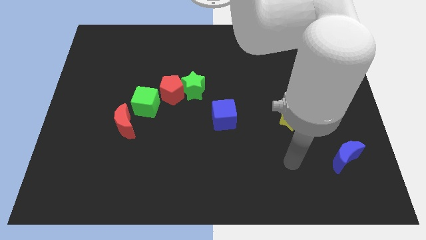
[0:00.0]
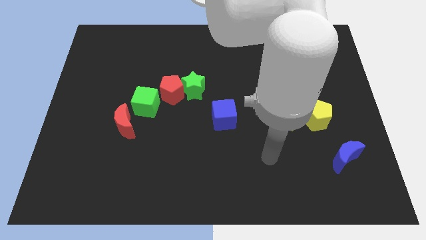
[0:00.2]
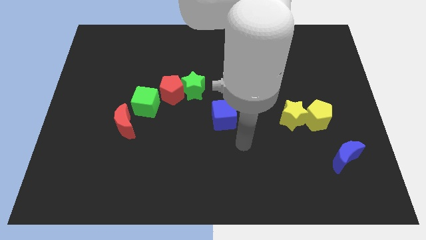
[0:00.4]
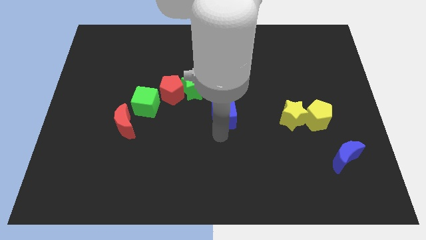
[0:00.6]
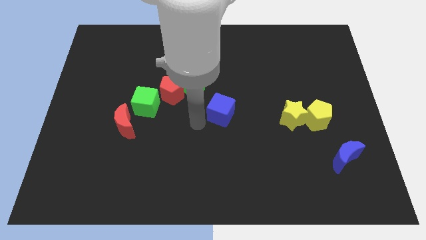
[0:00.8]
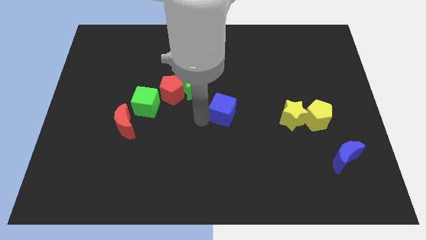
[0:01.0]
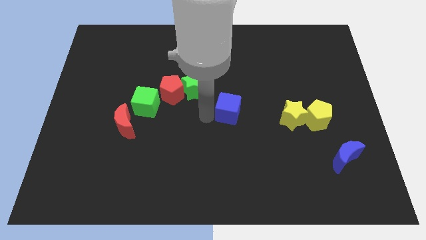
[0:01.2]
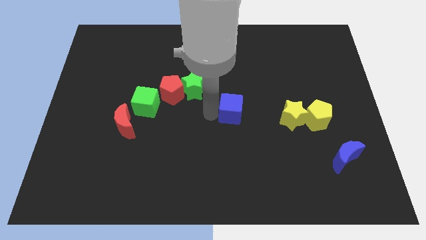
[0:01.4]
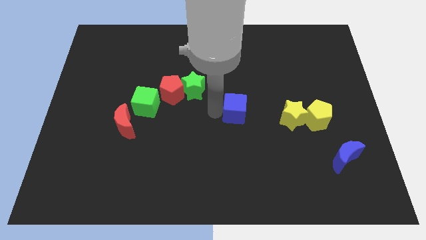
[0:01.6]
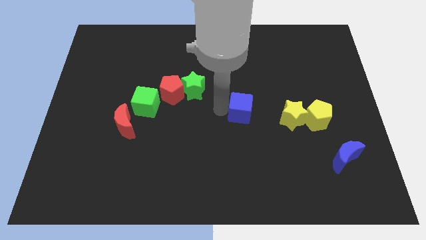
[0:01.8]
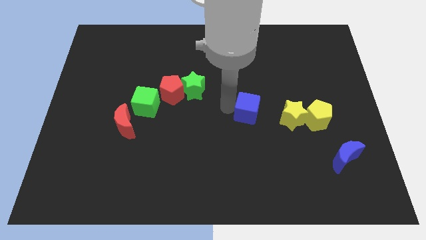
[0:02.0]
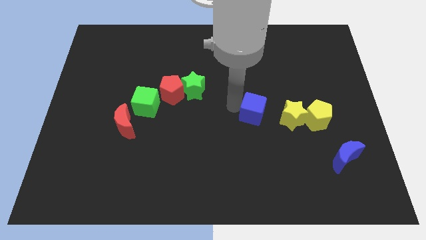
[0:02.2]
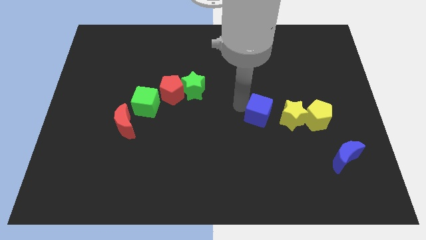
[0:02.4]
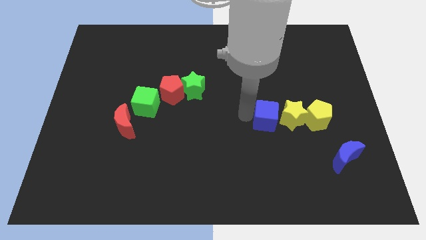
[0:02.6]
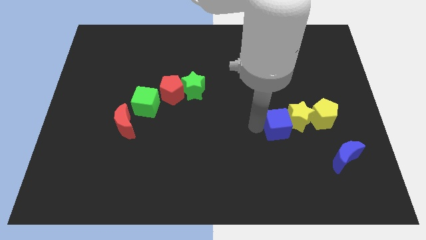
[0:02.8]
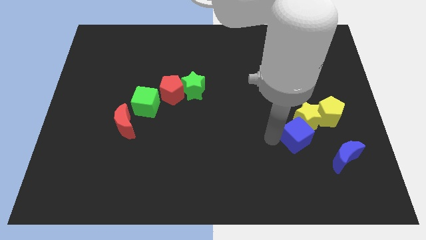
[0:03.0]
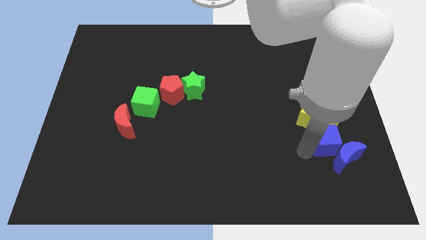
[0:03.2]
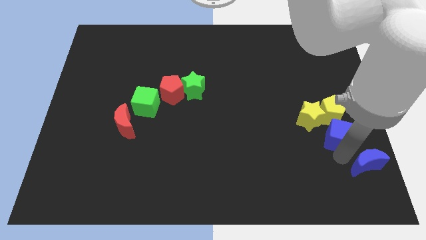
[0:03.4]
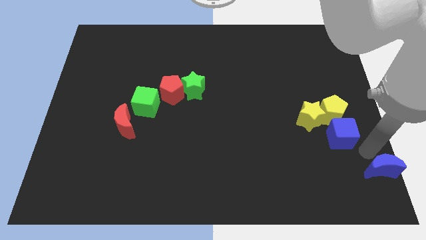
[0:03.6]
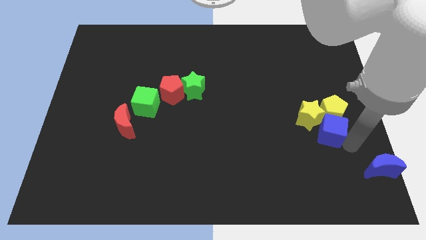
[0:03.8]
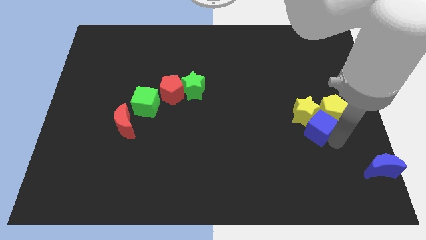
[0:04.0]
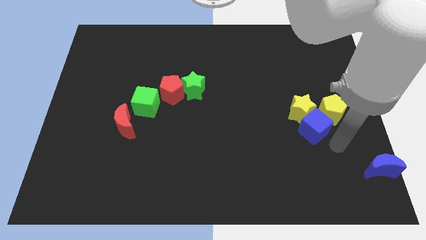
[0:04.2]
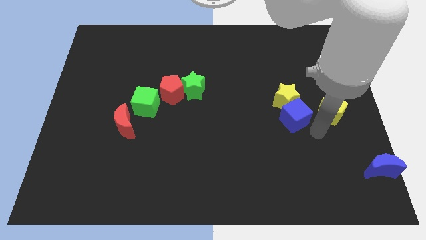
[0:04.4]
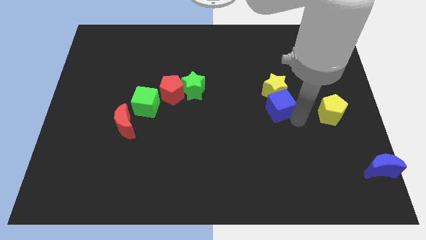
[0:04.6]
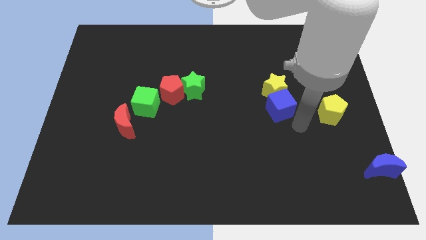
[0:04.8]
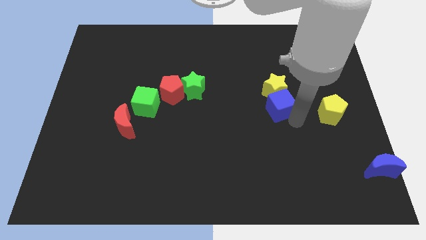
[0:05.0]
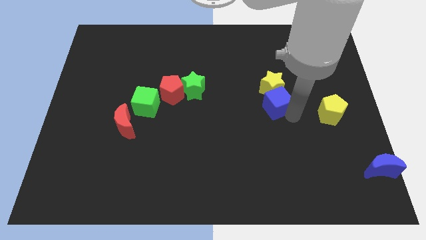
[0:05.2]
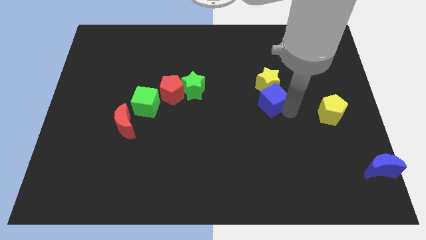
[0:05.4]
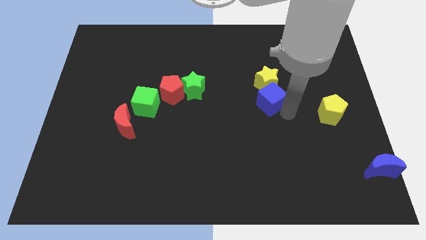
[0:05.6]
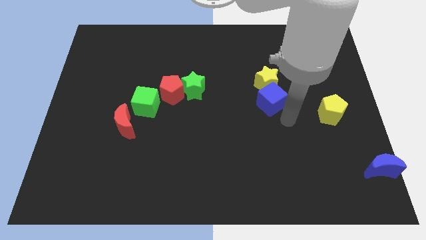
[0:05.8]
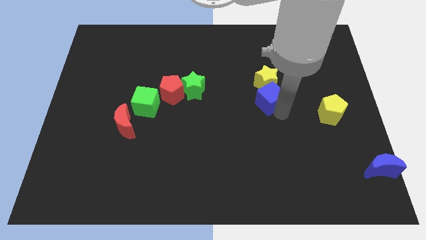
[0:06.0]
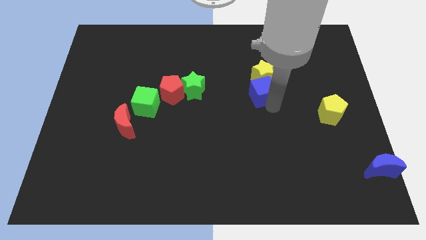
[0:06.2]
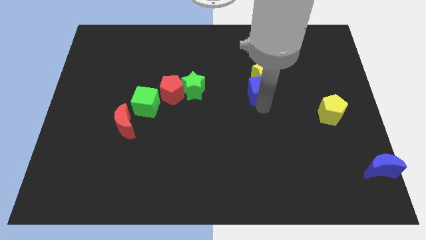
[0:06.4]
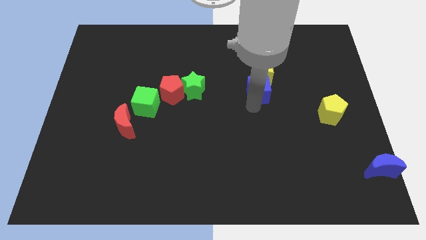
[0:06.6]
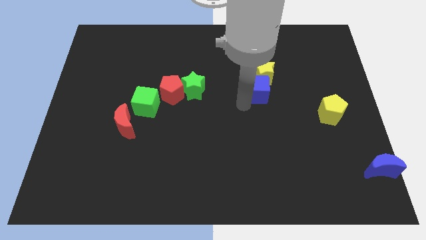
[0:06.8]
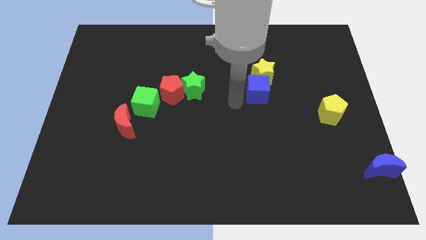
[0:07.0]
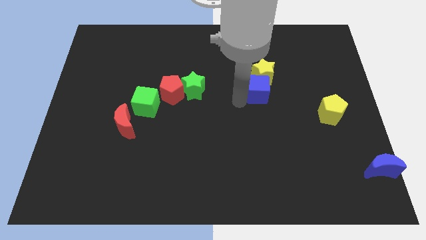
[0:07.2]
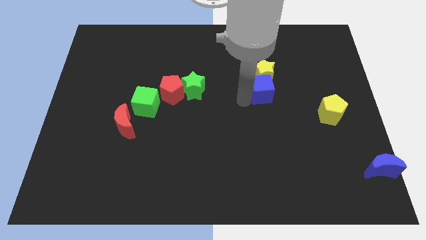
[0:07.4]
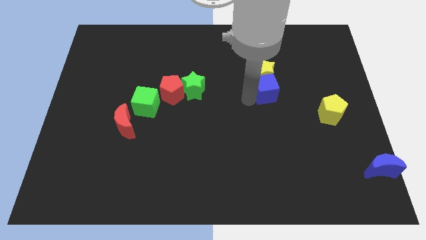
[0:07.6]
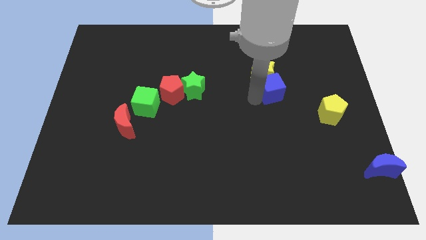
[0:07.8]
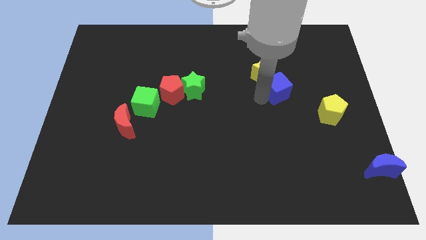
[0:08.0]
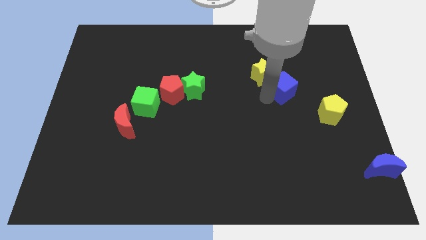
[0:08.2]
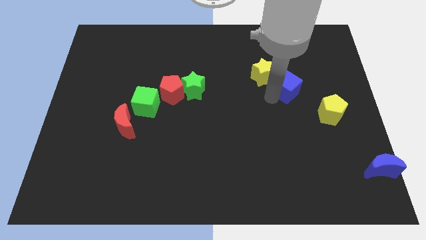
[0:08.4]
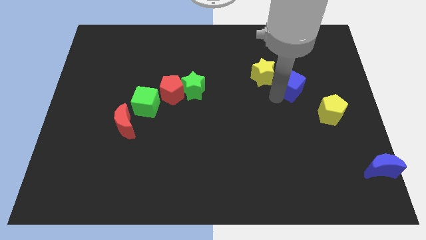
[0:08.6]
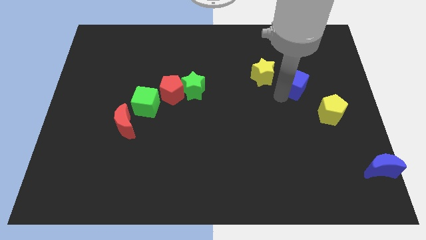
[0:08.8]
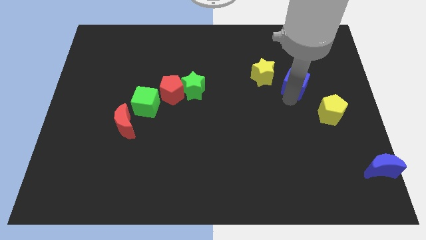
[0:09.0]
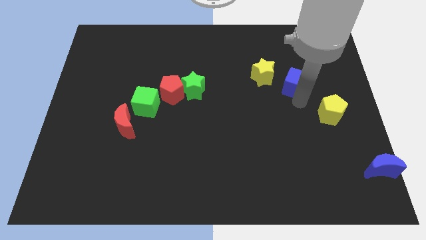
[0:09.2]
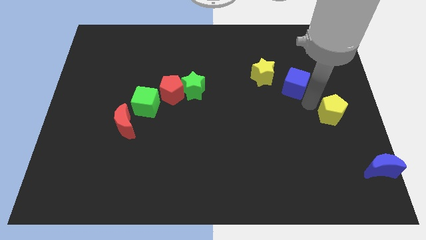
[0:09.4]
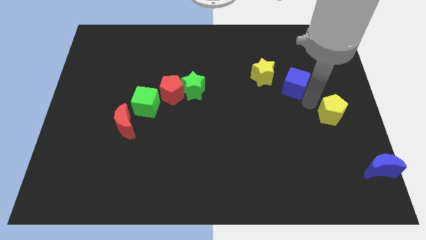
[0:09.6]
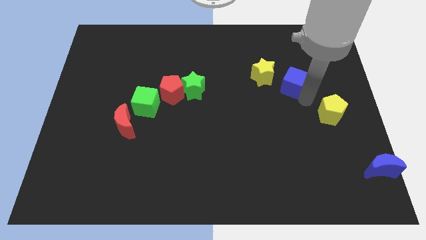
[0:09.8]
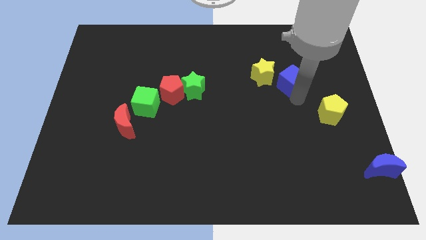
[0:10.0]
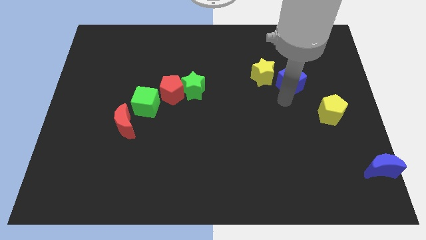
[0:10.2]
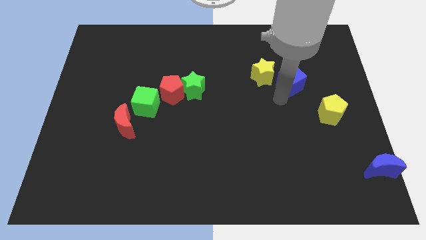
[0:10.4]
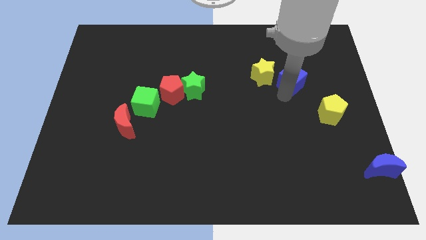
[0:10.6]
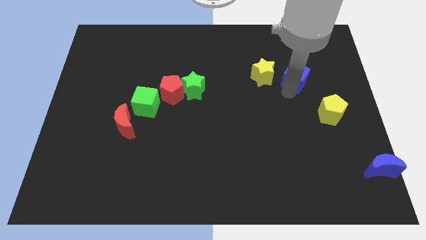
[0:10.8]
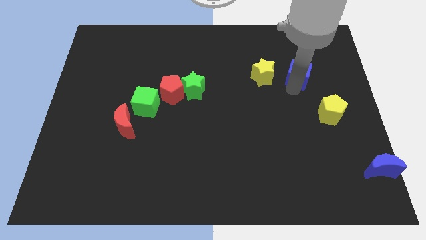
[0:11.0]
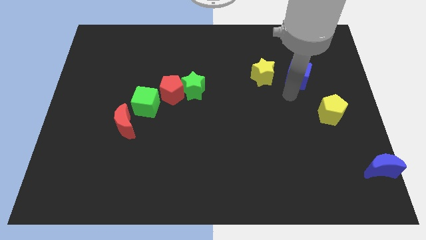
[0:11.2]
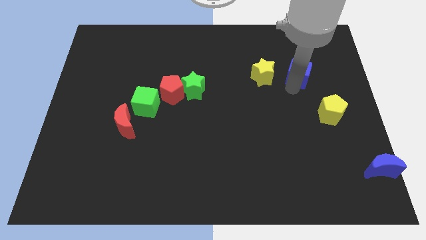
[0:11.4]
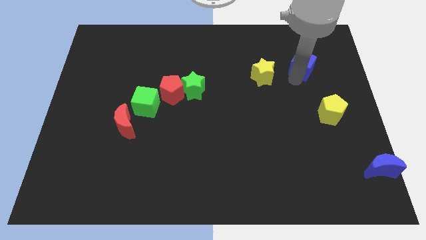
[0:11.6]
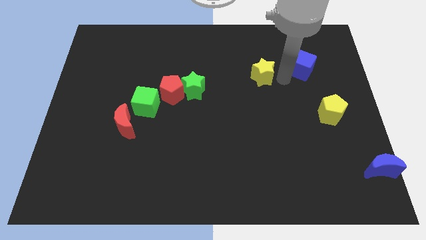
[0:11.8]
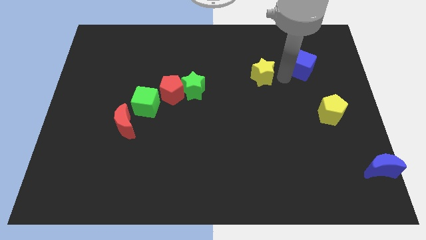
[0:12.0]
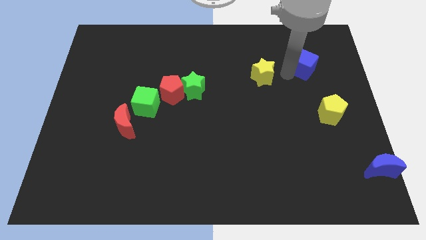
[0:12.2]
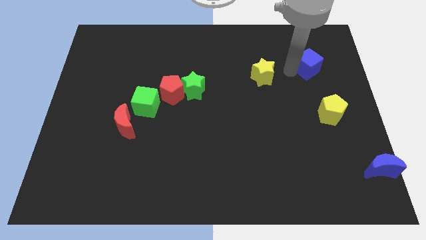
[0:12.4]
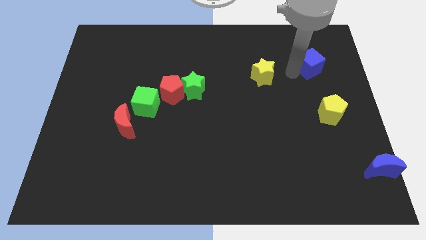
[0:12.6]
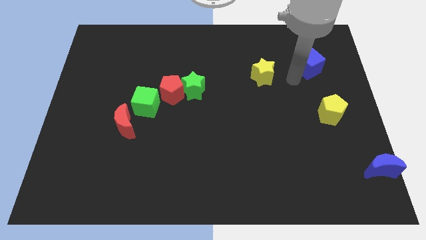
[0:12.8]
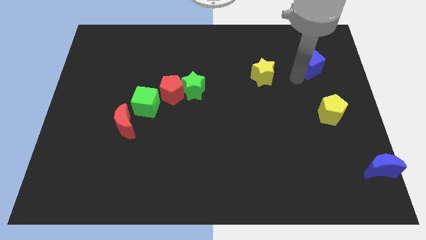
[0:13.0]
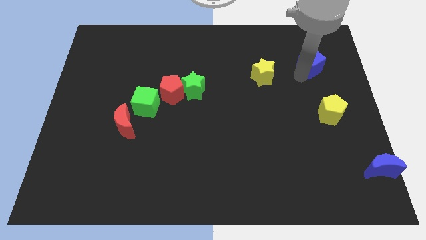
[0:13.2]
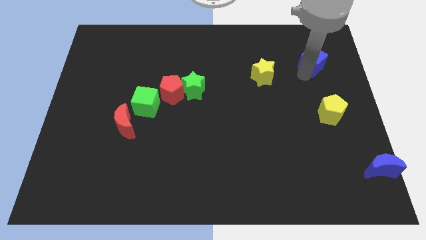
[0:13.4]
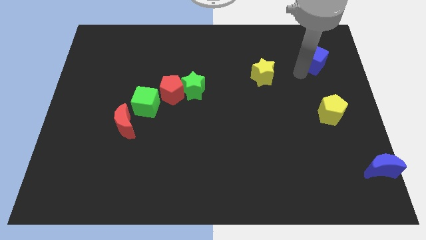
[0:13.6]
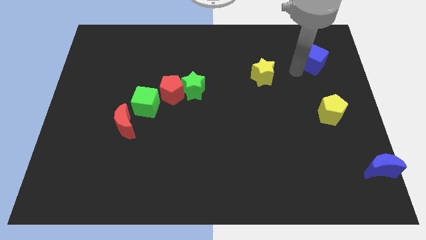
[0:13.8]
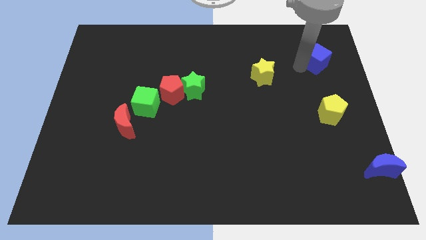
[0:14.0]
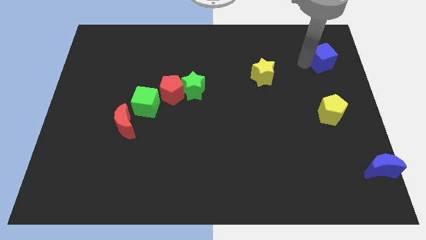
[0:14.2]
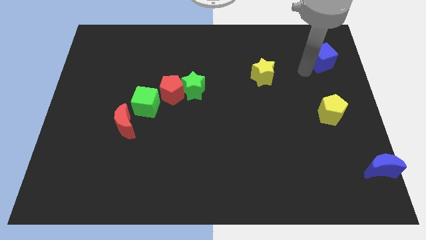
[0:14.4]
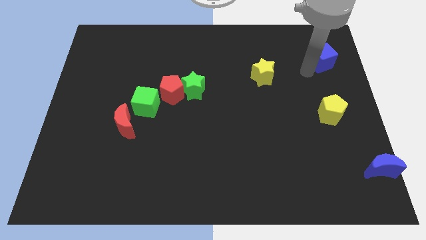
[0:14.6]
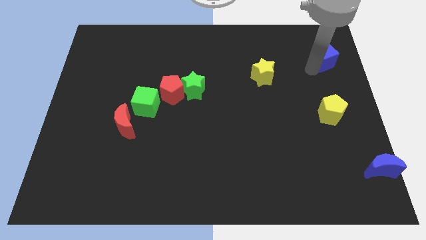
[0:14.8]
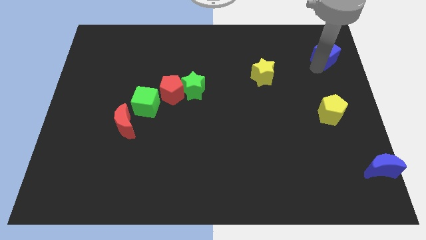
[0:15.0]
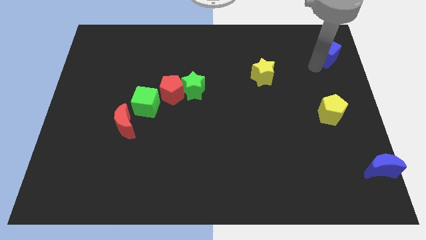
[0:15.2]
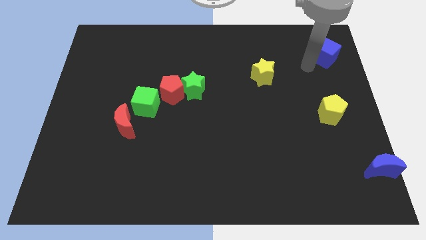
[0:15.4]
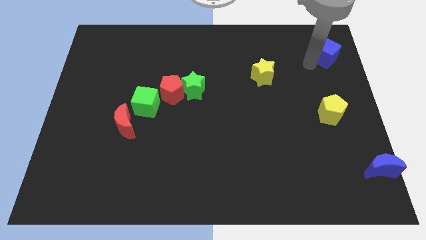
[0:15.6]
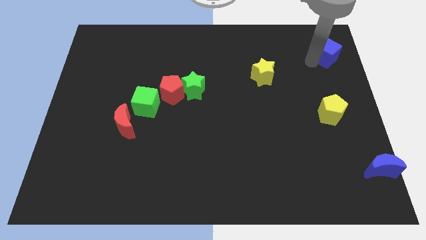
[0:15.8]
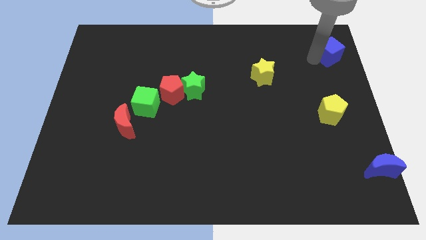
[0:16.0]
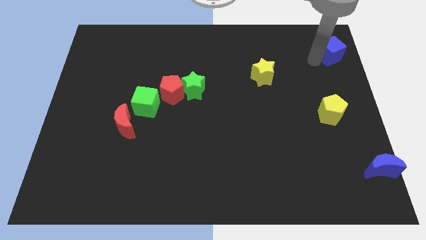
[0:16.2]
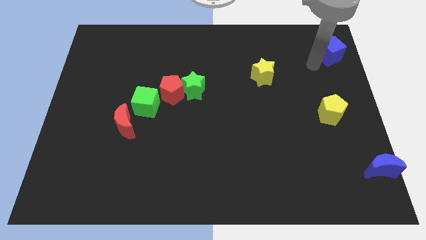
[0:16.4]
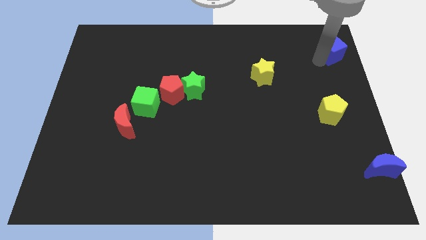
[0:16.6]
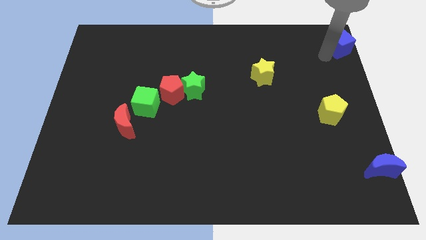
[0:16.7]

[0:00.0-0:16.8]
put the blue cube to the top right
